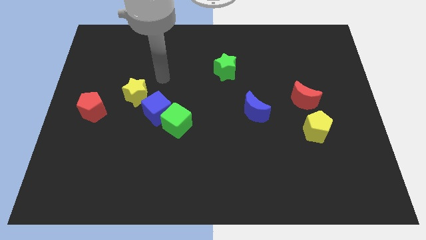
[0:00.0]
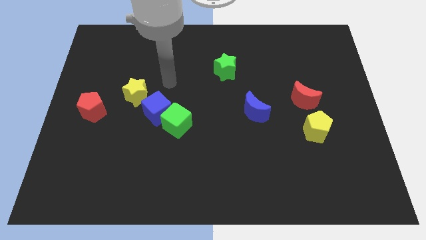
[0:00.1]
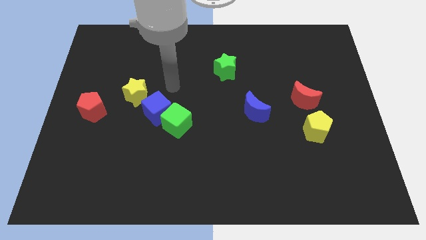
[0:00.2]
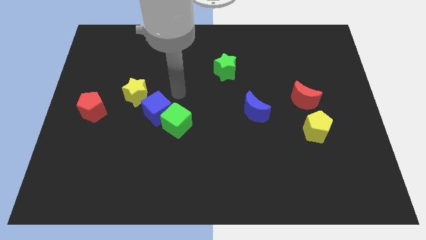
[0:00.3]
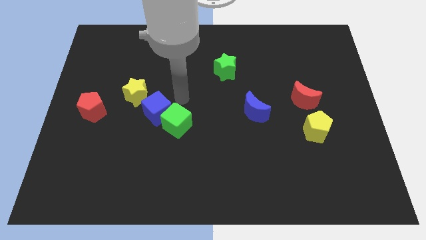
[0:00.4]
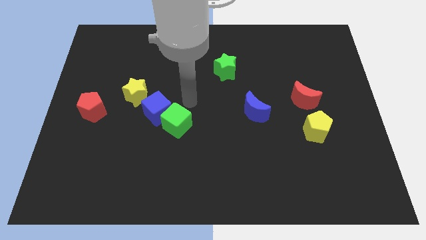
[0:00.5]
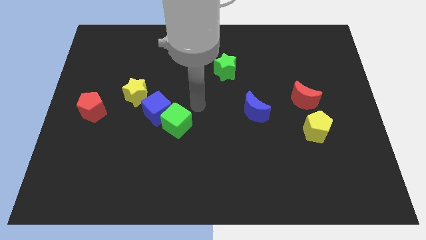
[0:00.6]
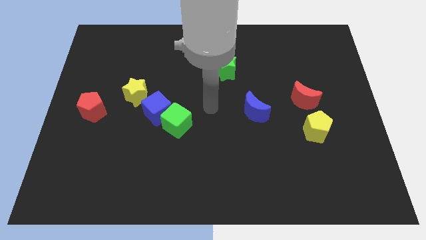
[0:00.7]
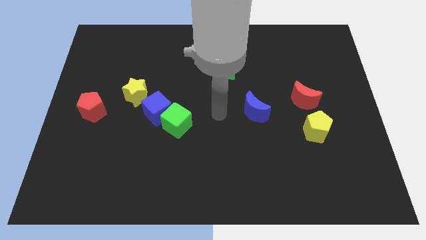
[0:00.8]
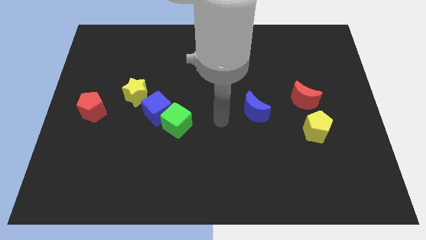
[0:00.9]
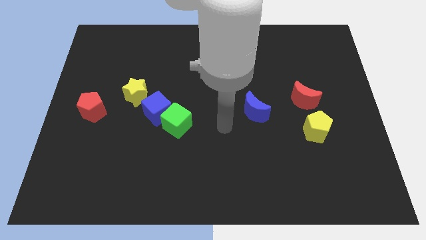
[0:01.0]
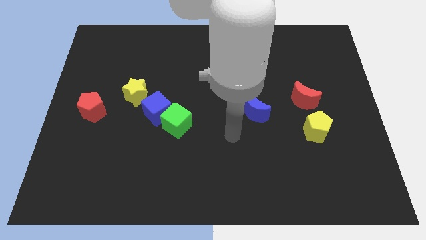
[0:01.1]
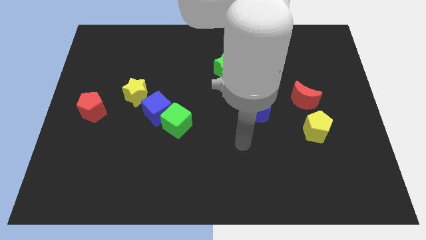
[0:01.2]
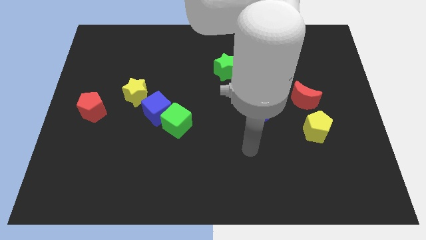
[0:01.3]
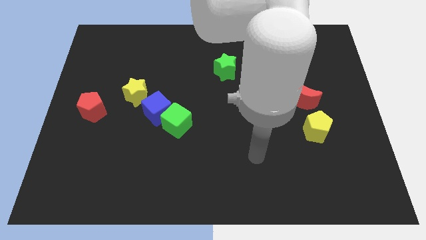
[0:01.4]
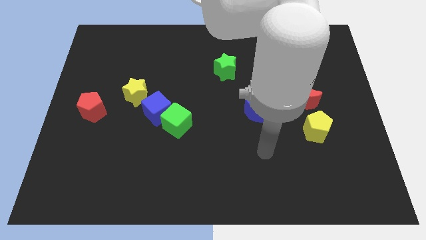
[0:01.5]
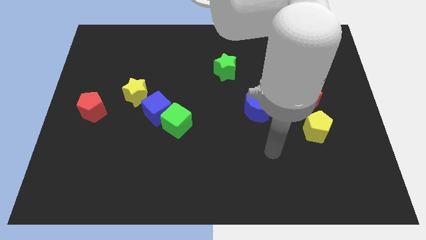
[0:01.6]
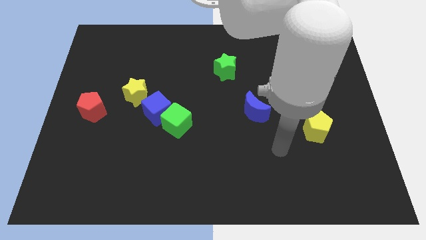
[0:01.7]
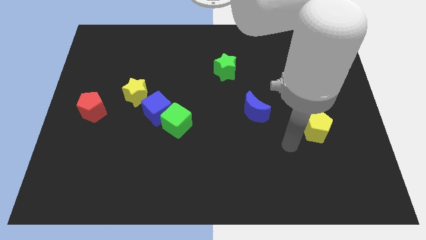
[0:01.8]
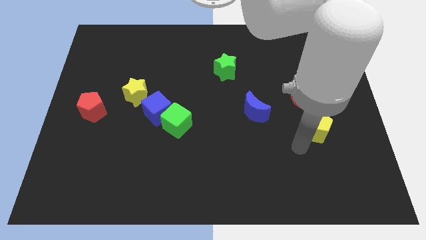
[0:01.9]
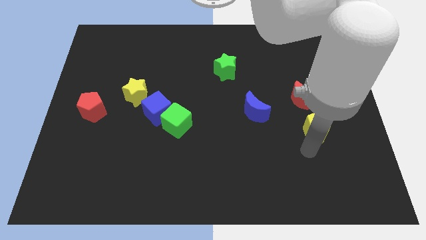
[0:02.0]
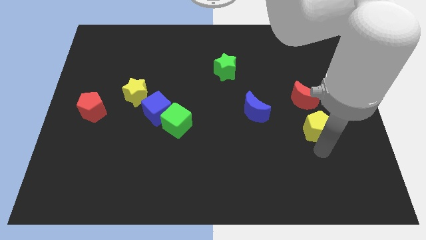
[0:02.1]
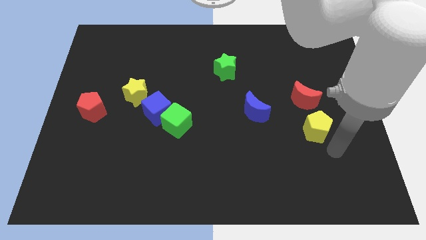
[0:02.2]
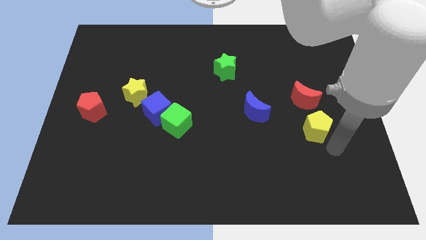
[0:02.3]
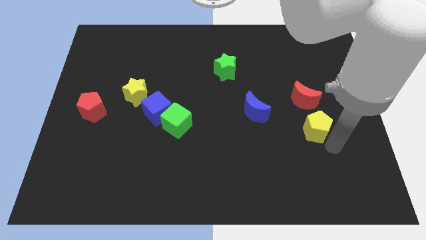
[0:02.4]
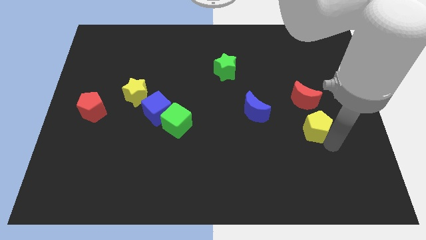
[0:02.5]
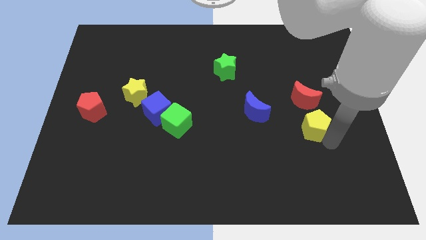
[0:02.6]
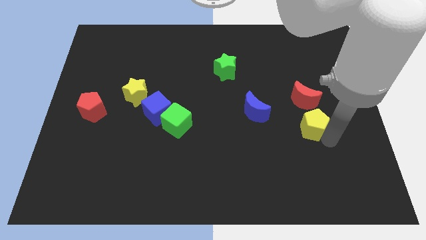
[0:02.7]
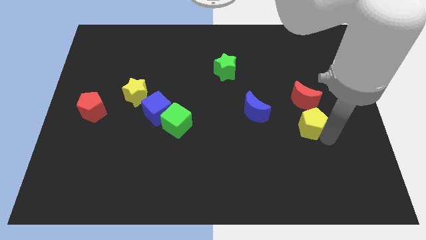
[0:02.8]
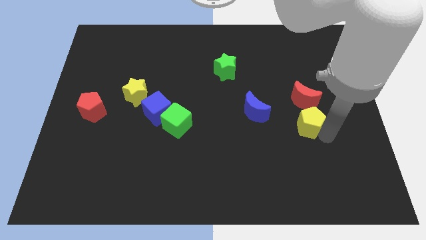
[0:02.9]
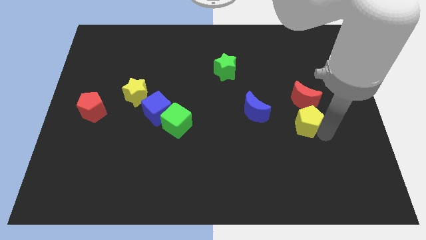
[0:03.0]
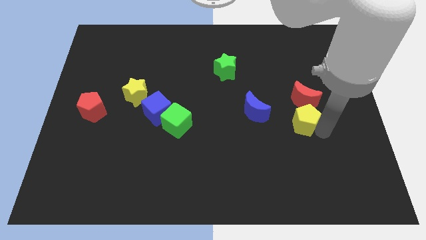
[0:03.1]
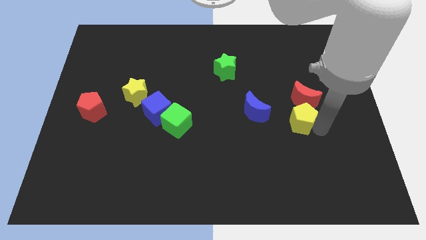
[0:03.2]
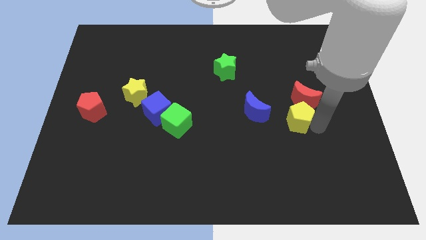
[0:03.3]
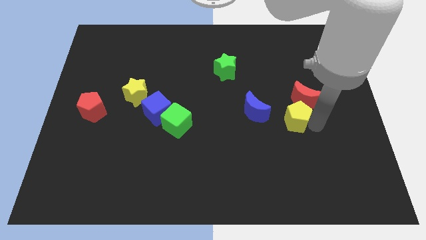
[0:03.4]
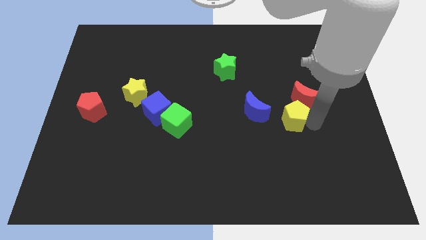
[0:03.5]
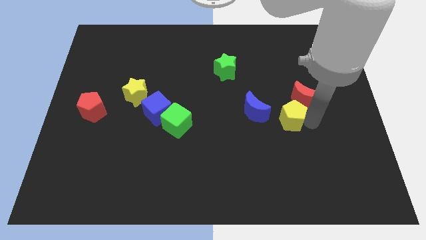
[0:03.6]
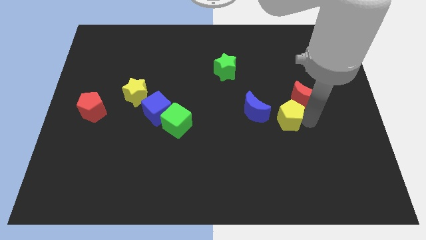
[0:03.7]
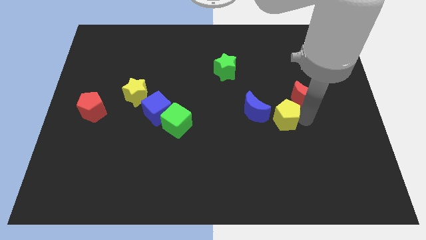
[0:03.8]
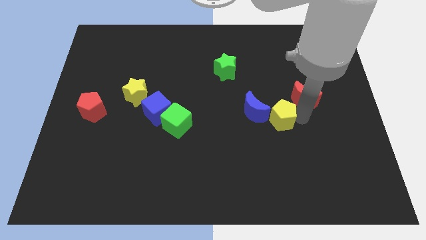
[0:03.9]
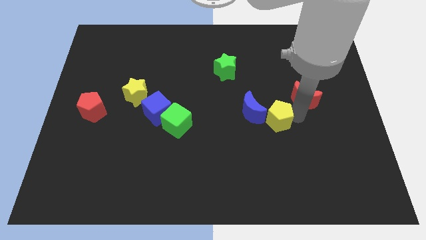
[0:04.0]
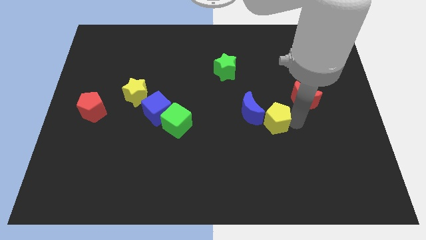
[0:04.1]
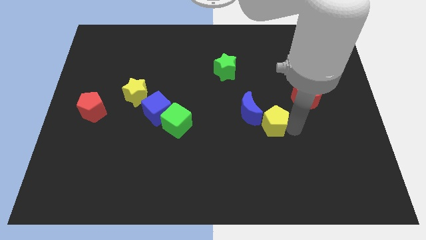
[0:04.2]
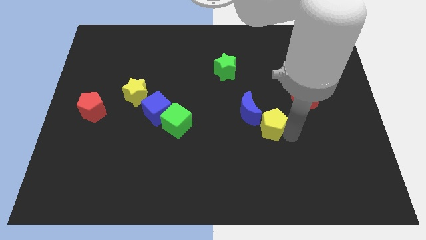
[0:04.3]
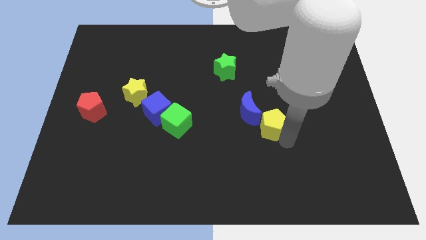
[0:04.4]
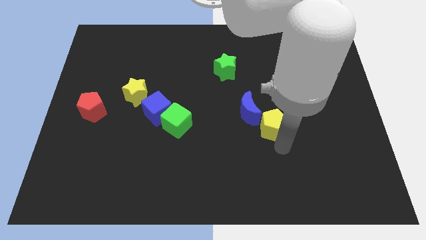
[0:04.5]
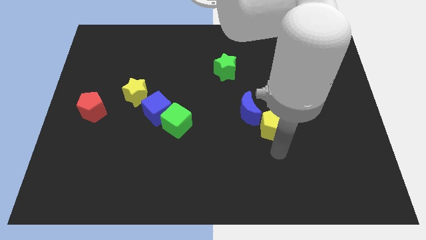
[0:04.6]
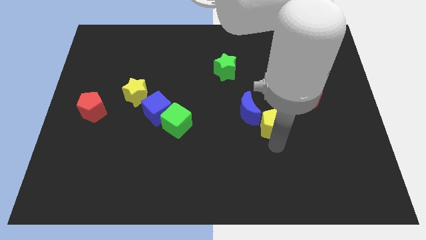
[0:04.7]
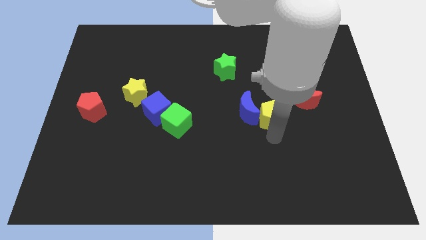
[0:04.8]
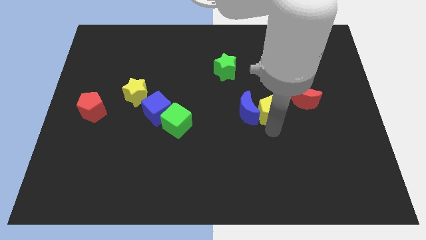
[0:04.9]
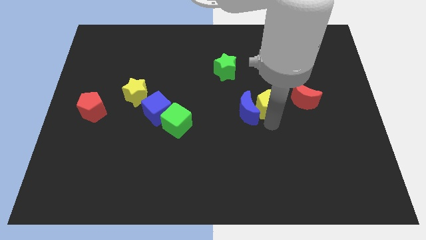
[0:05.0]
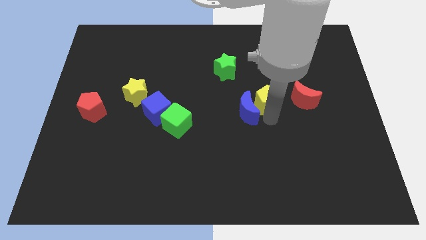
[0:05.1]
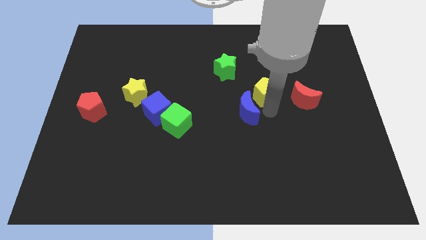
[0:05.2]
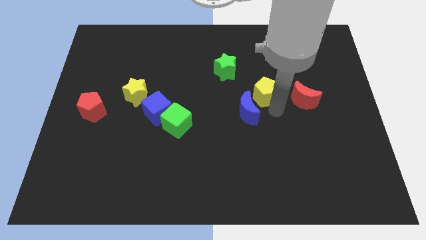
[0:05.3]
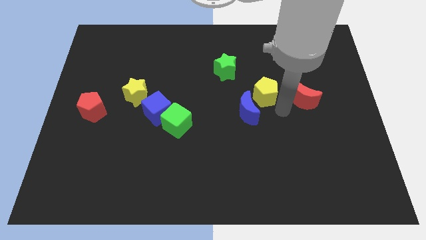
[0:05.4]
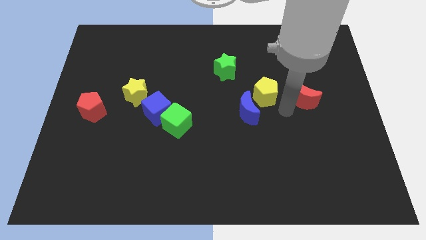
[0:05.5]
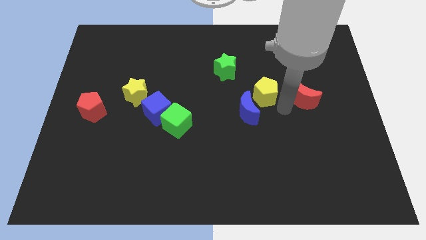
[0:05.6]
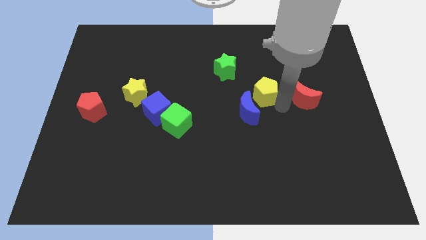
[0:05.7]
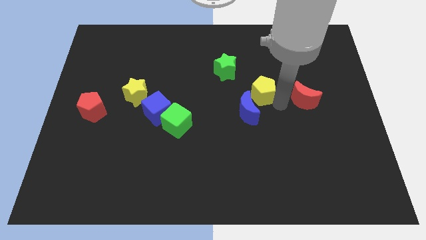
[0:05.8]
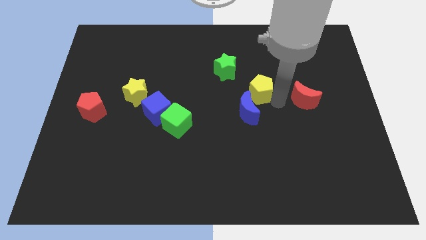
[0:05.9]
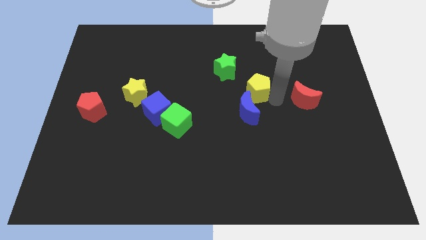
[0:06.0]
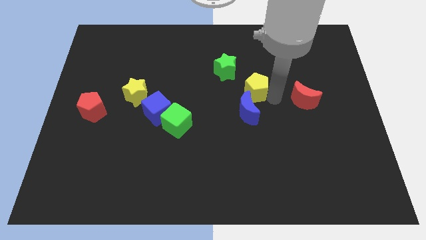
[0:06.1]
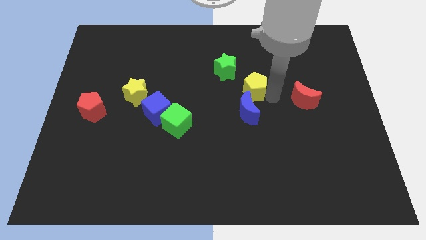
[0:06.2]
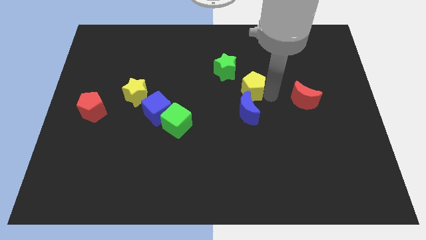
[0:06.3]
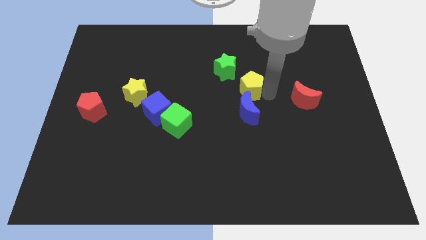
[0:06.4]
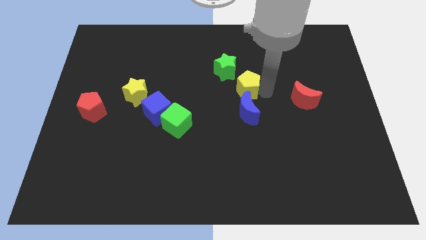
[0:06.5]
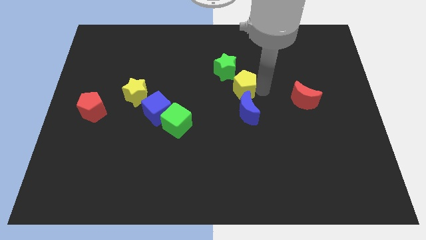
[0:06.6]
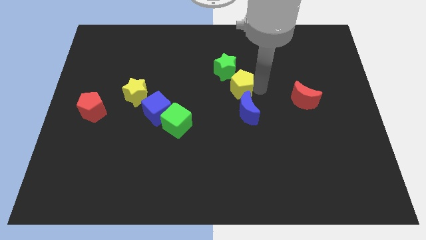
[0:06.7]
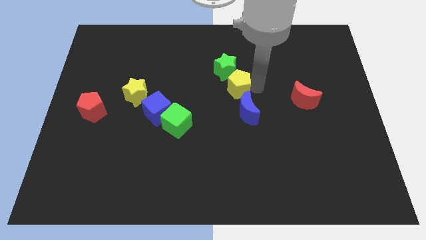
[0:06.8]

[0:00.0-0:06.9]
slide the yellow pentagon close to the green star
